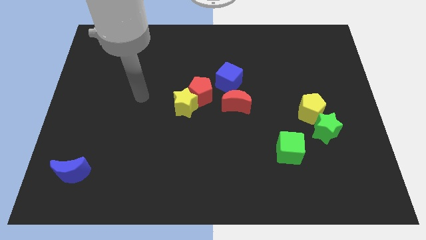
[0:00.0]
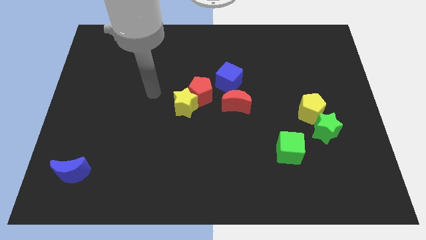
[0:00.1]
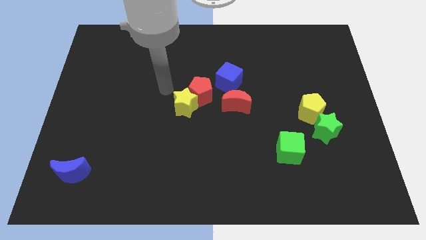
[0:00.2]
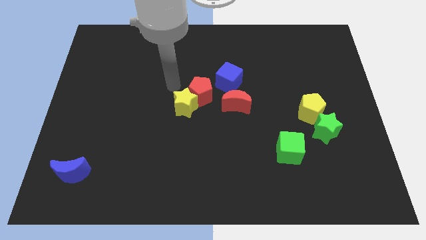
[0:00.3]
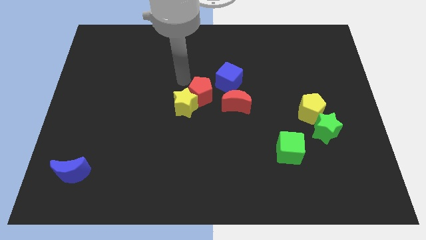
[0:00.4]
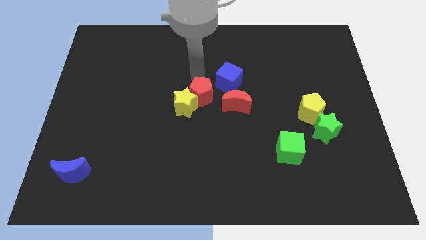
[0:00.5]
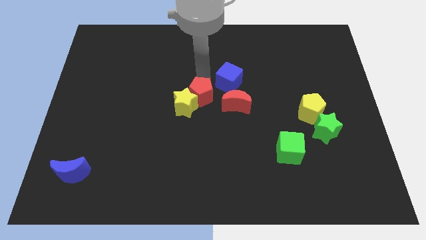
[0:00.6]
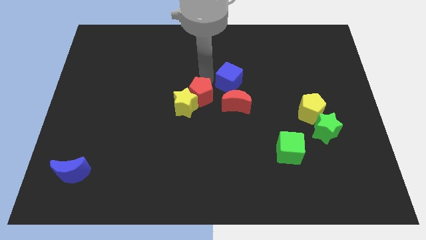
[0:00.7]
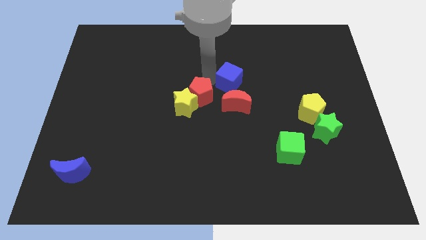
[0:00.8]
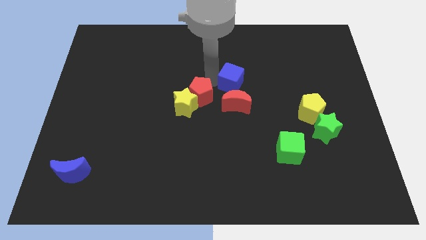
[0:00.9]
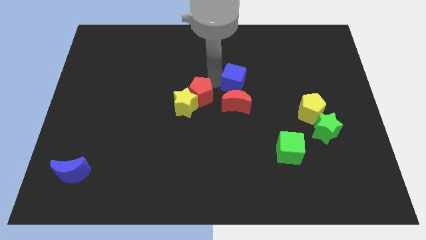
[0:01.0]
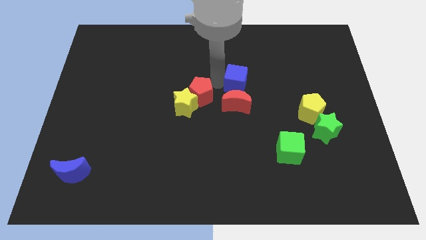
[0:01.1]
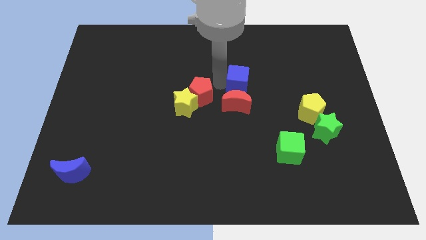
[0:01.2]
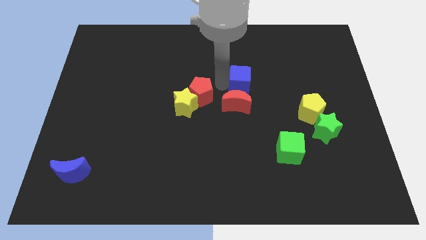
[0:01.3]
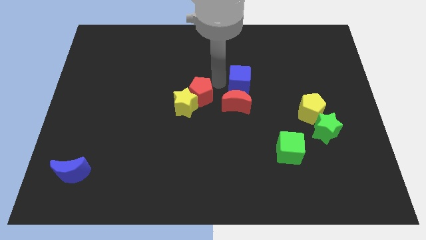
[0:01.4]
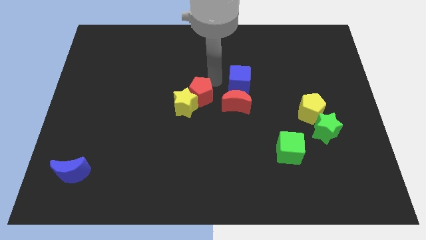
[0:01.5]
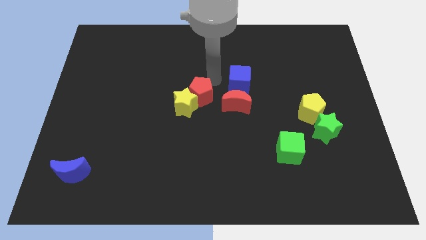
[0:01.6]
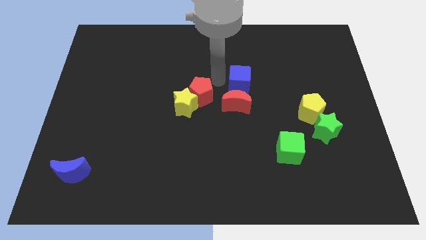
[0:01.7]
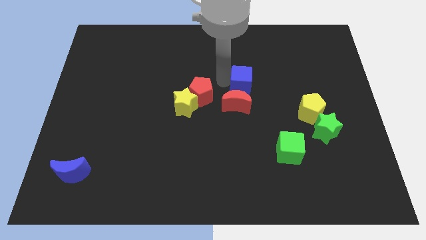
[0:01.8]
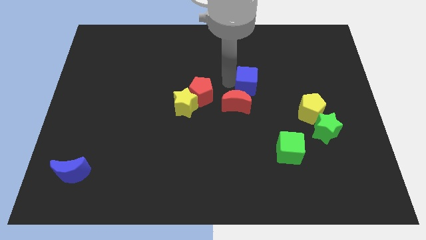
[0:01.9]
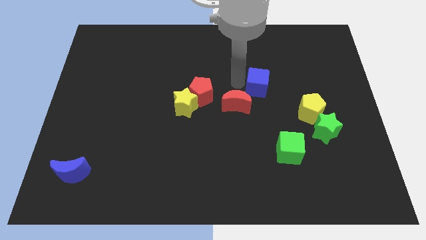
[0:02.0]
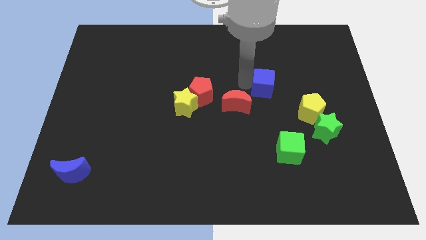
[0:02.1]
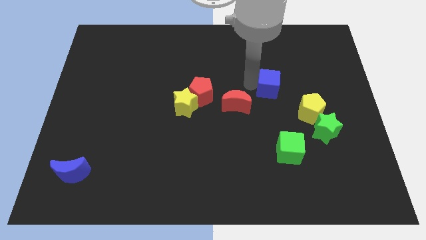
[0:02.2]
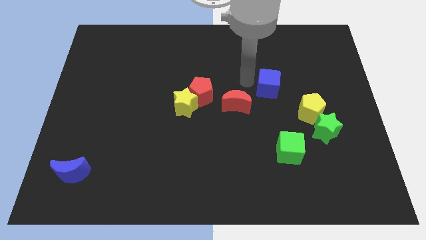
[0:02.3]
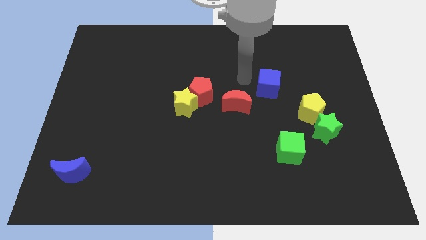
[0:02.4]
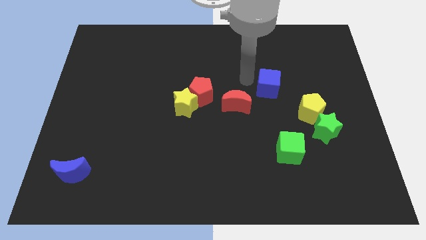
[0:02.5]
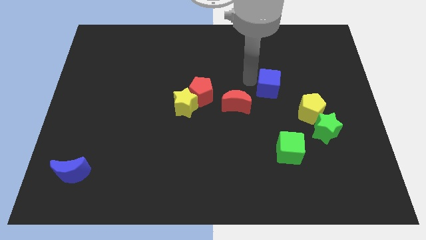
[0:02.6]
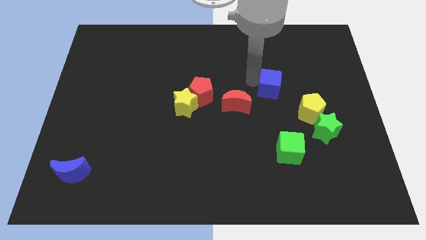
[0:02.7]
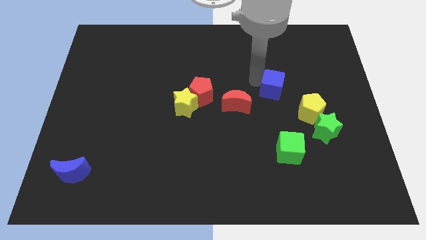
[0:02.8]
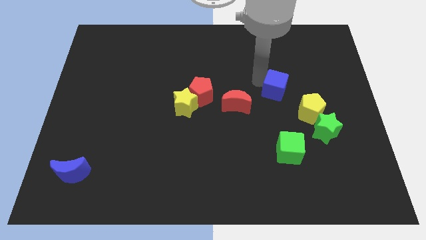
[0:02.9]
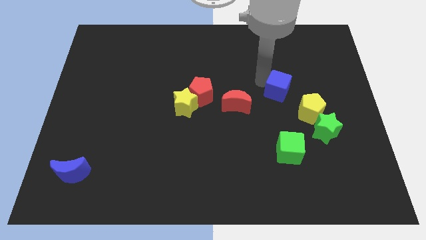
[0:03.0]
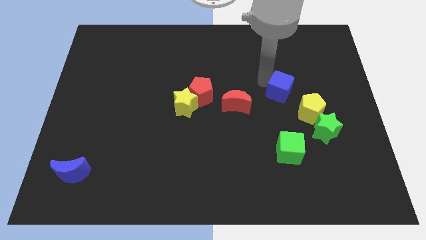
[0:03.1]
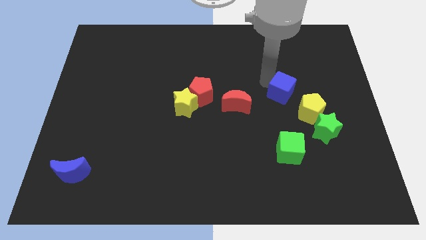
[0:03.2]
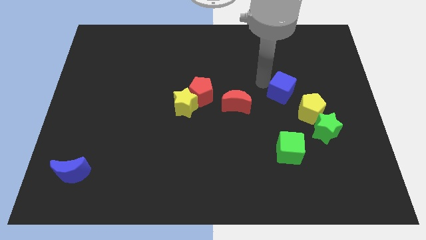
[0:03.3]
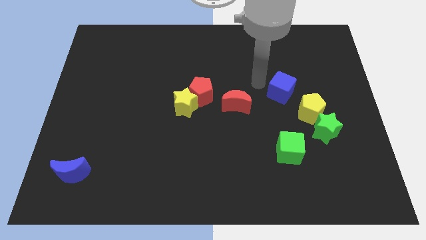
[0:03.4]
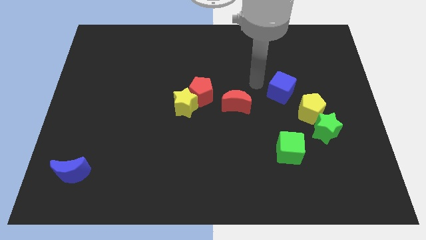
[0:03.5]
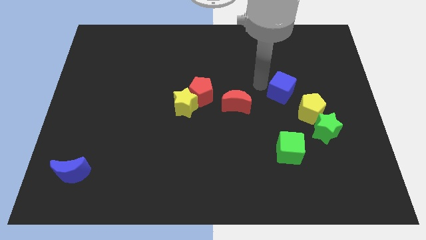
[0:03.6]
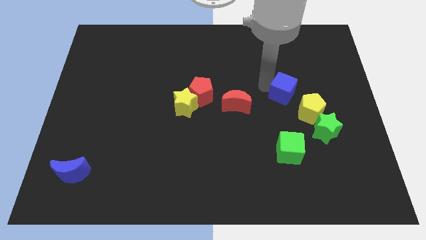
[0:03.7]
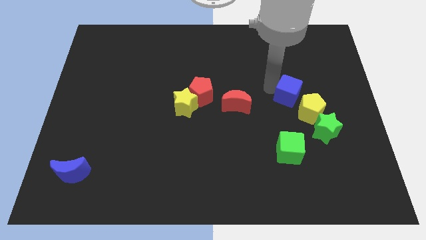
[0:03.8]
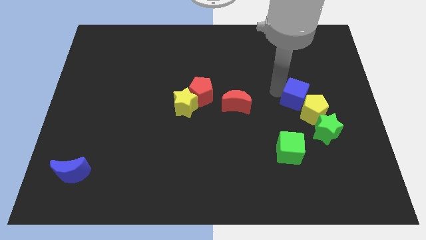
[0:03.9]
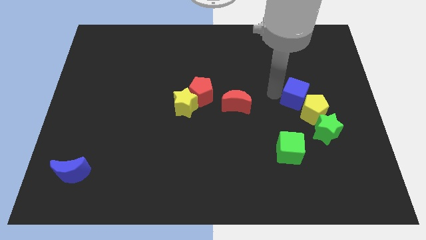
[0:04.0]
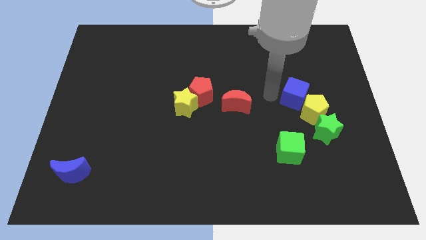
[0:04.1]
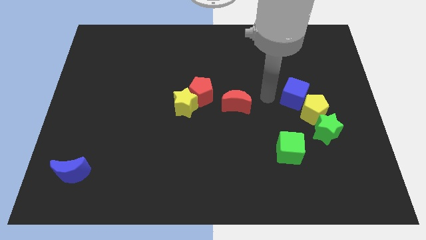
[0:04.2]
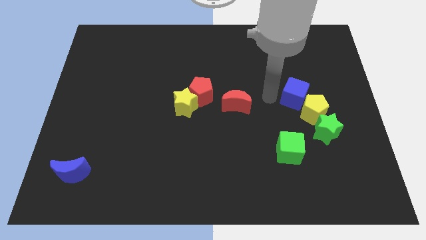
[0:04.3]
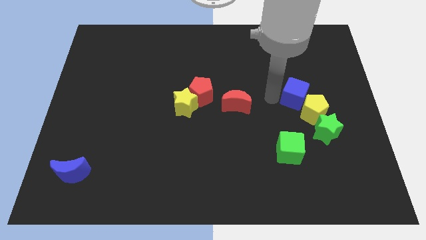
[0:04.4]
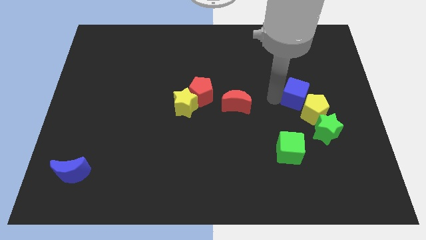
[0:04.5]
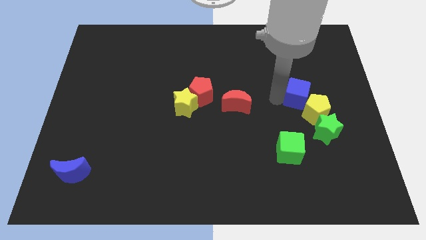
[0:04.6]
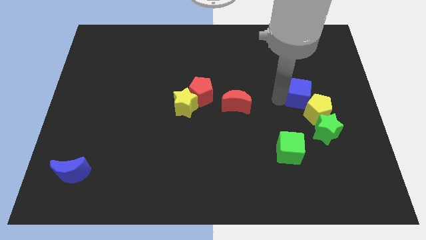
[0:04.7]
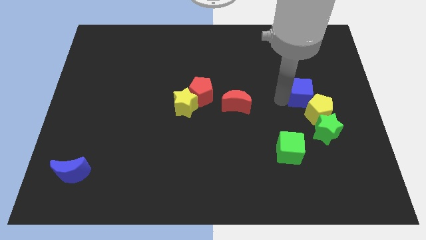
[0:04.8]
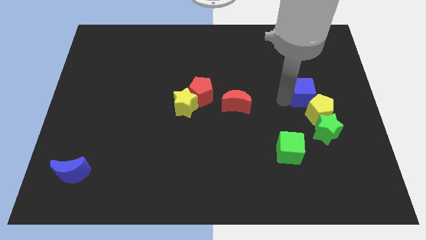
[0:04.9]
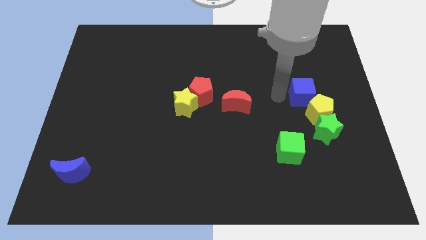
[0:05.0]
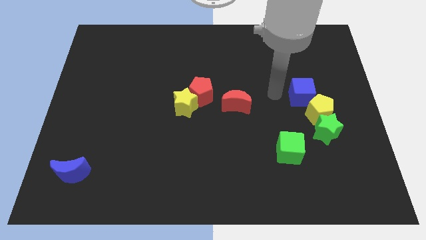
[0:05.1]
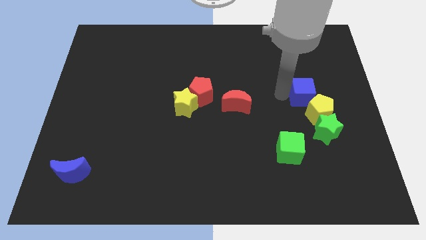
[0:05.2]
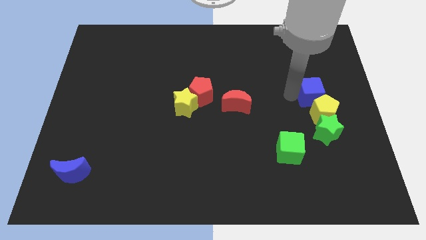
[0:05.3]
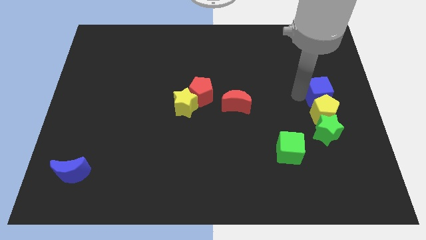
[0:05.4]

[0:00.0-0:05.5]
move the blue cube to the right side
